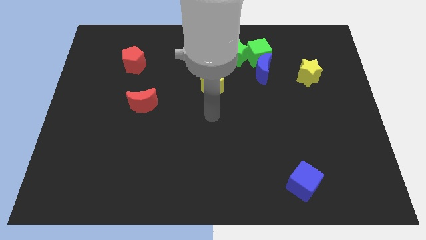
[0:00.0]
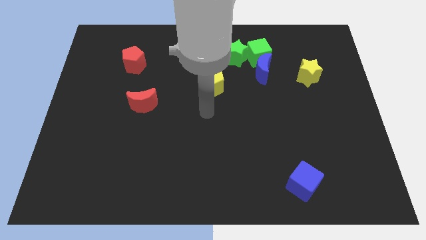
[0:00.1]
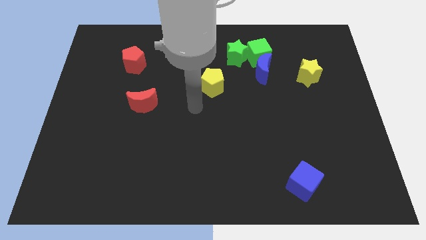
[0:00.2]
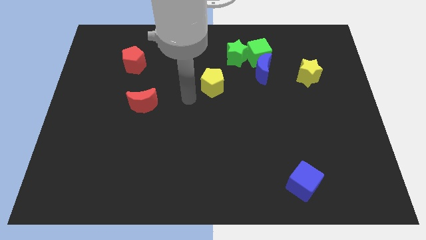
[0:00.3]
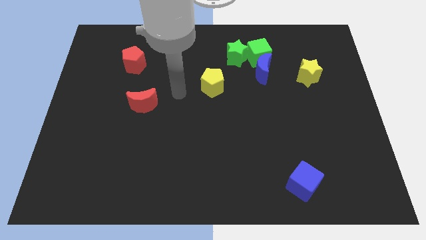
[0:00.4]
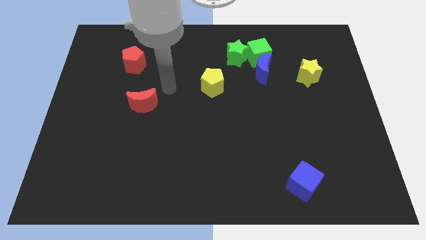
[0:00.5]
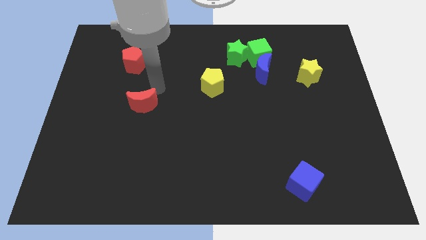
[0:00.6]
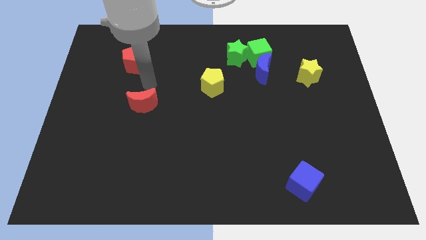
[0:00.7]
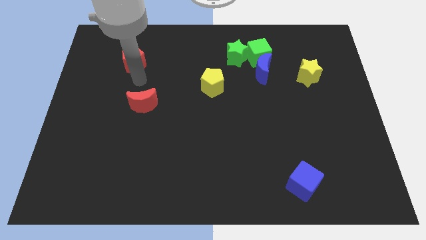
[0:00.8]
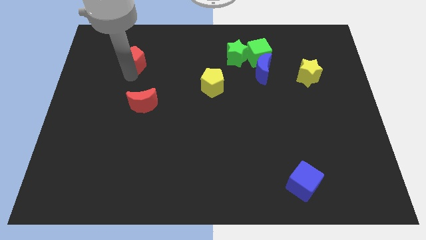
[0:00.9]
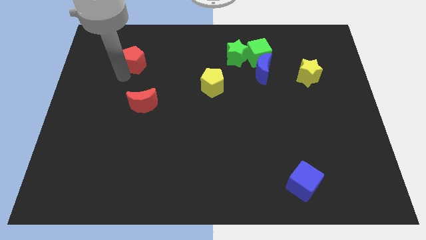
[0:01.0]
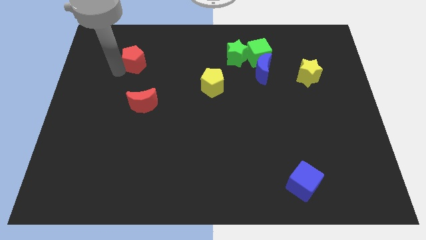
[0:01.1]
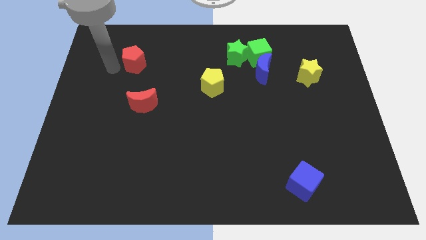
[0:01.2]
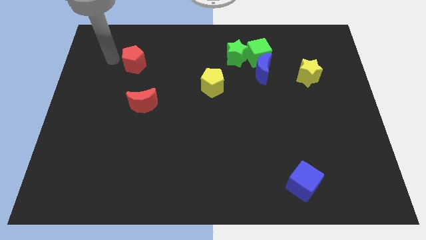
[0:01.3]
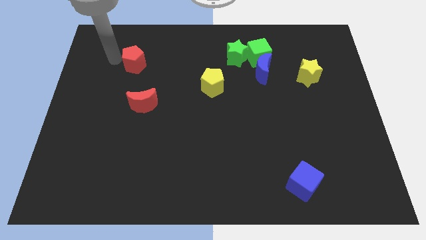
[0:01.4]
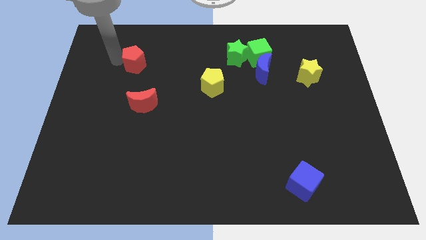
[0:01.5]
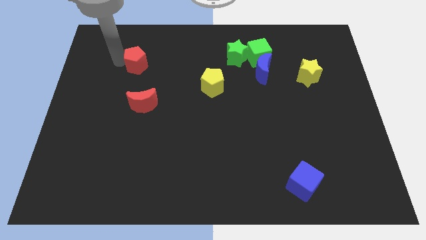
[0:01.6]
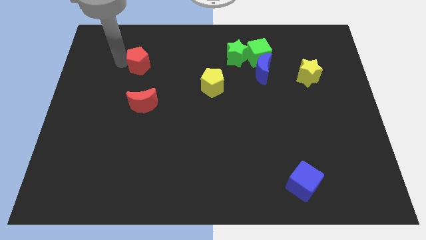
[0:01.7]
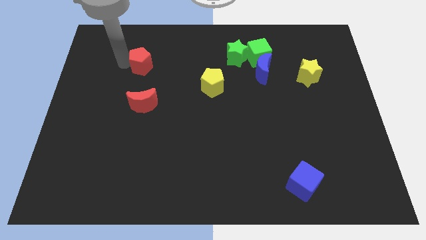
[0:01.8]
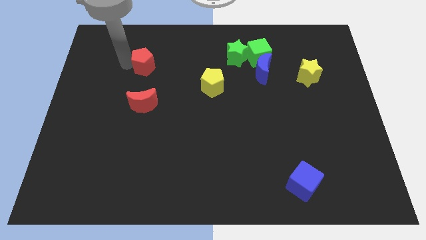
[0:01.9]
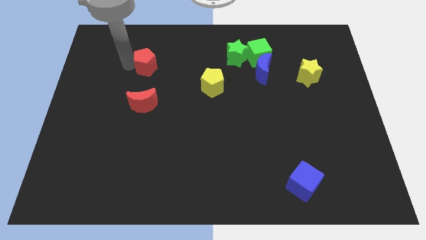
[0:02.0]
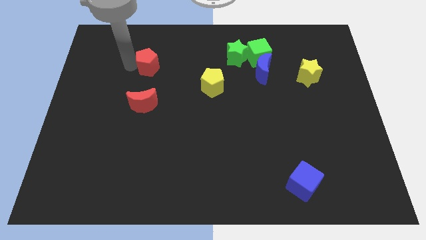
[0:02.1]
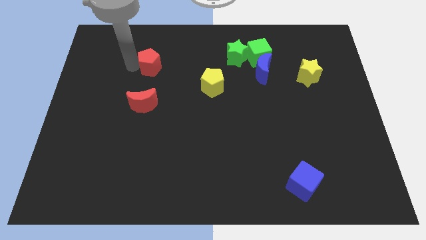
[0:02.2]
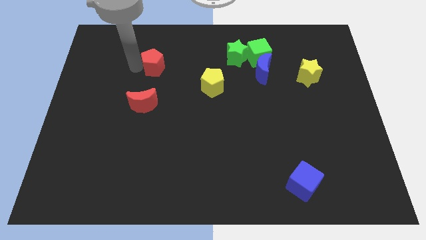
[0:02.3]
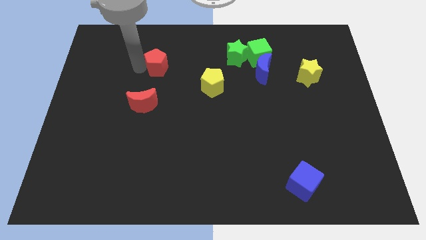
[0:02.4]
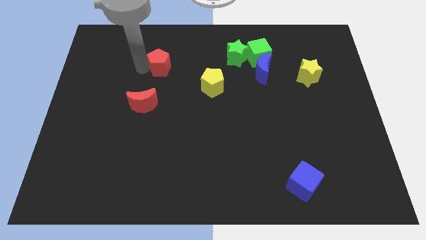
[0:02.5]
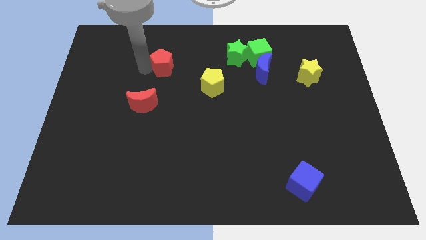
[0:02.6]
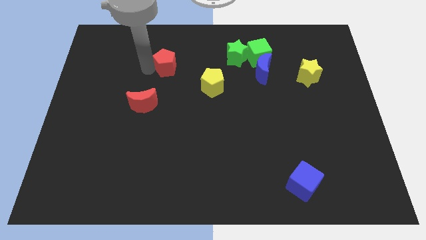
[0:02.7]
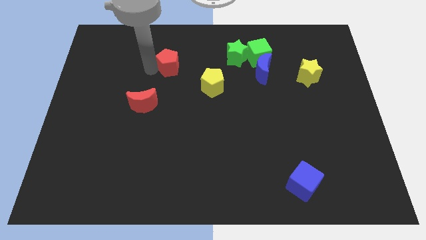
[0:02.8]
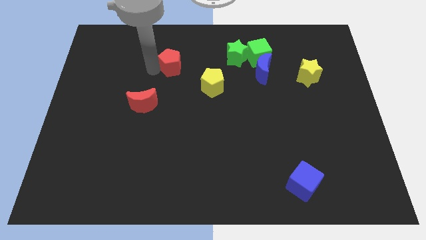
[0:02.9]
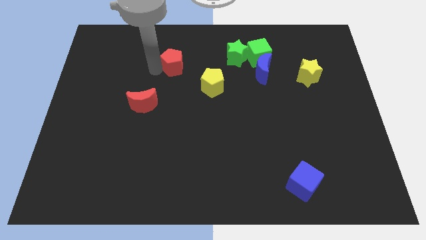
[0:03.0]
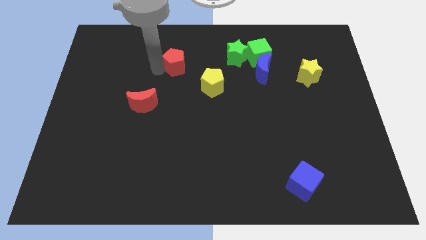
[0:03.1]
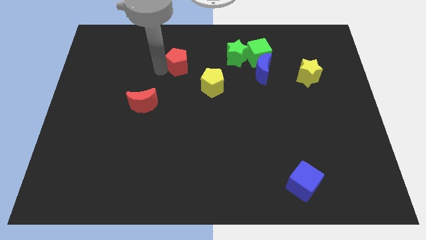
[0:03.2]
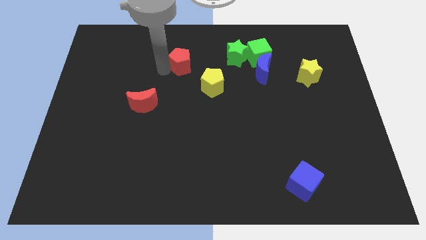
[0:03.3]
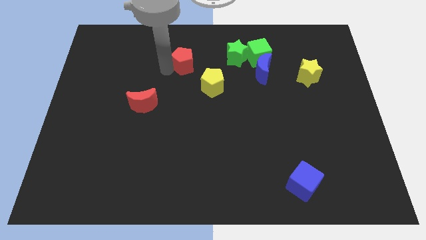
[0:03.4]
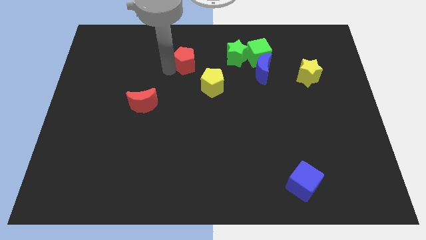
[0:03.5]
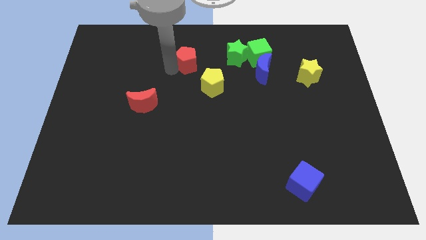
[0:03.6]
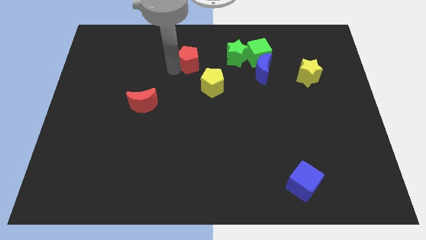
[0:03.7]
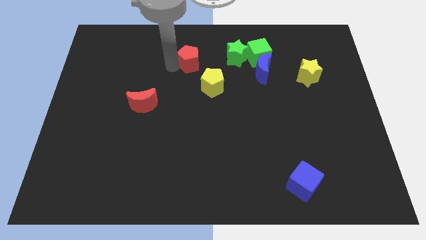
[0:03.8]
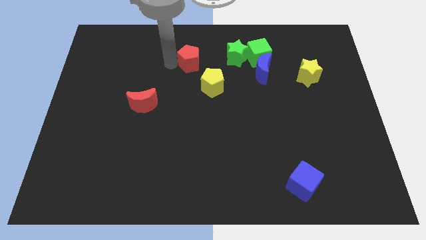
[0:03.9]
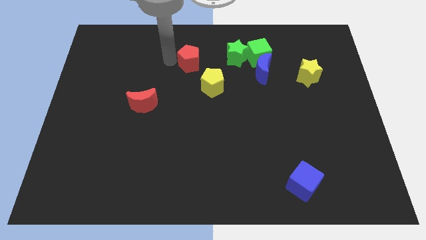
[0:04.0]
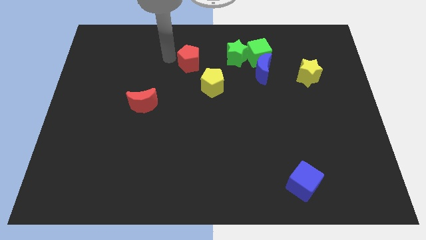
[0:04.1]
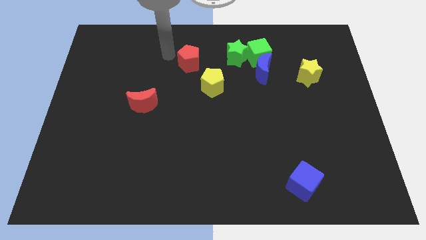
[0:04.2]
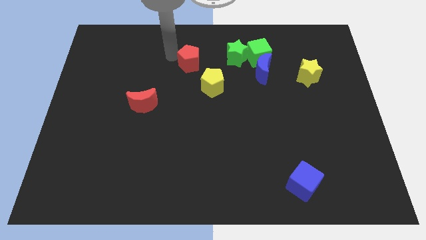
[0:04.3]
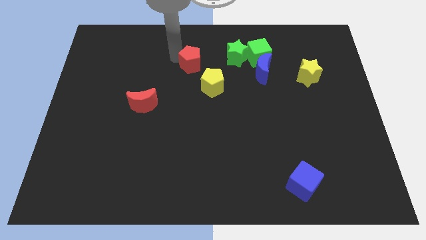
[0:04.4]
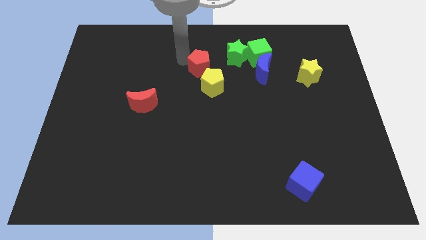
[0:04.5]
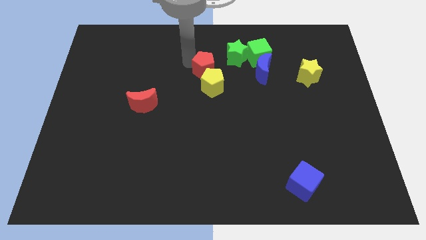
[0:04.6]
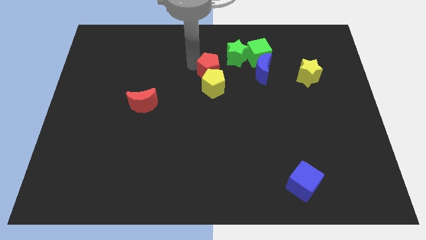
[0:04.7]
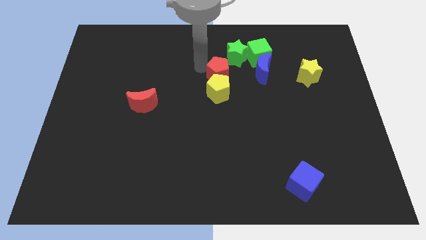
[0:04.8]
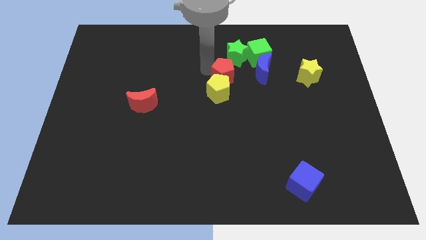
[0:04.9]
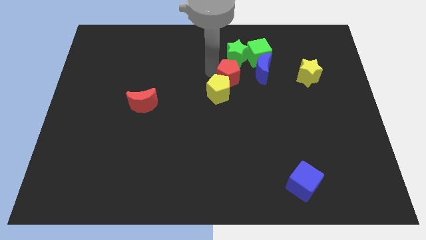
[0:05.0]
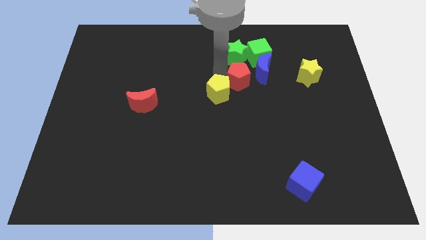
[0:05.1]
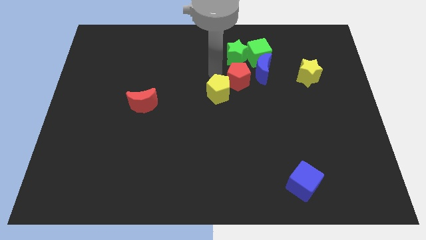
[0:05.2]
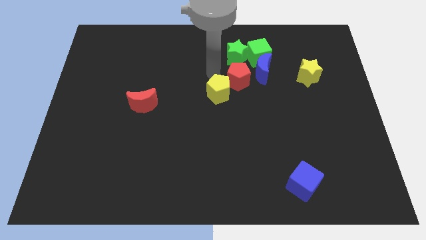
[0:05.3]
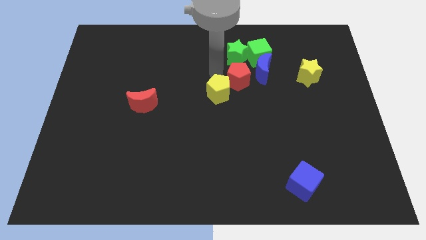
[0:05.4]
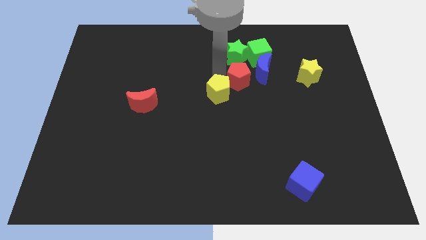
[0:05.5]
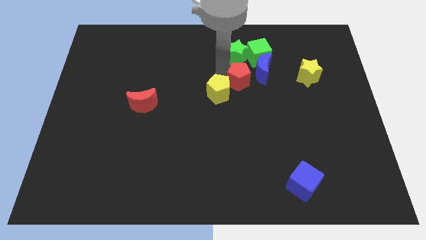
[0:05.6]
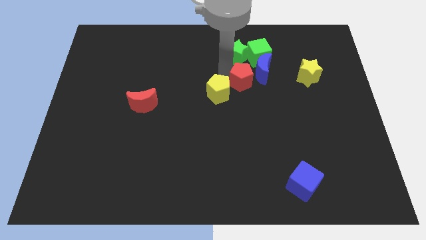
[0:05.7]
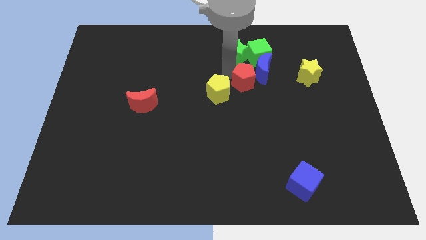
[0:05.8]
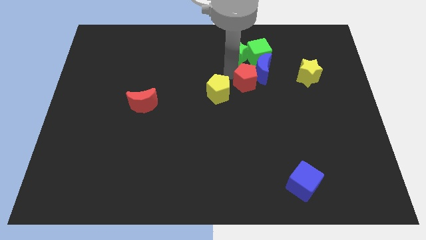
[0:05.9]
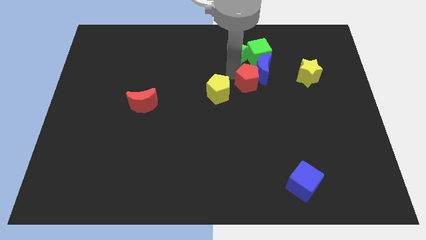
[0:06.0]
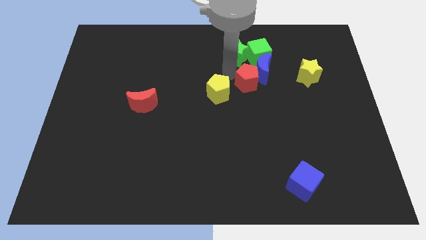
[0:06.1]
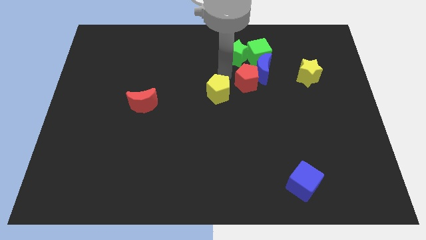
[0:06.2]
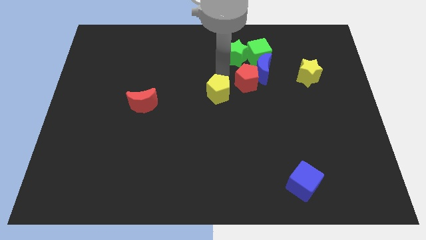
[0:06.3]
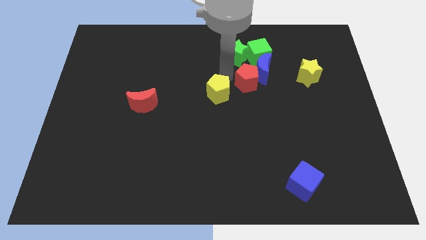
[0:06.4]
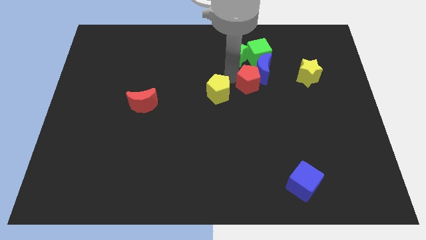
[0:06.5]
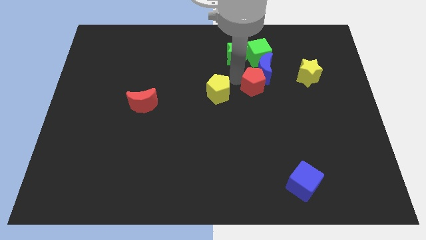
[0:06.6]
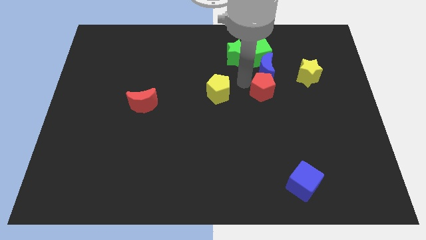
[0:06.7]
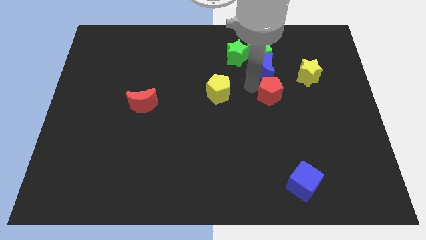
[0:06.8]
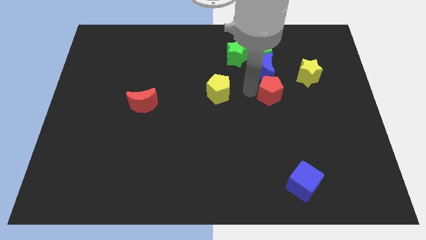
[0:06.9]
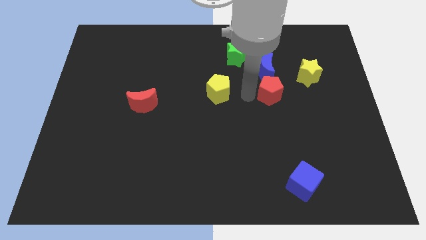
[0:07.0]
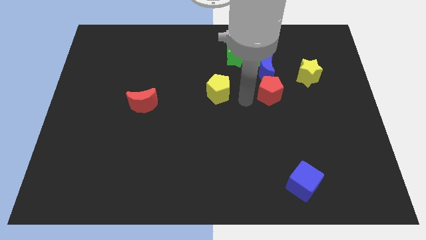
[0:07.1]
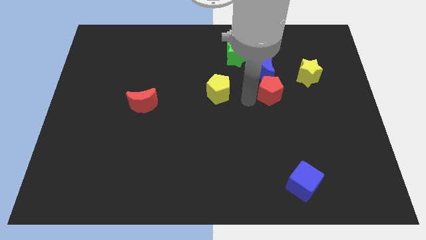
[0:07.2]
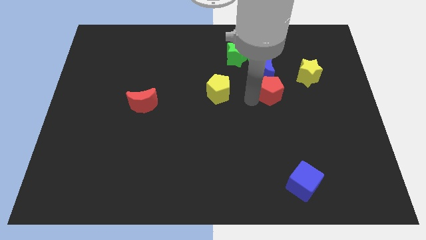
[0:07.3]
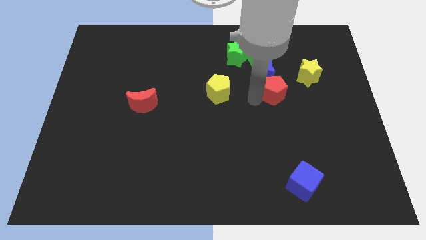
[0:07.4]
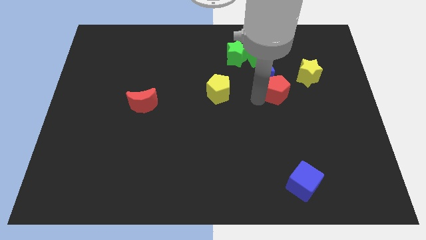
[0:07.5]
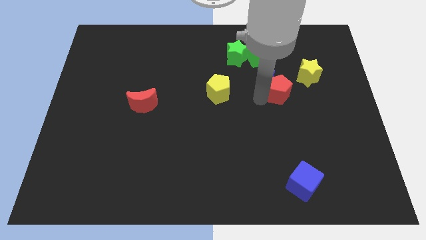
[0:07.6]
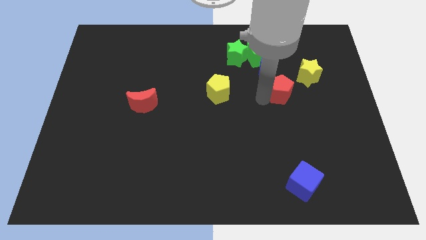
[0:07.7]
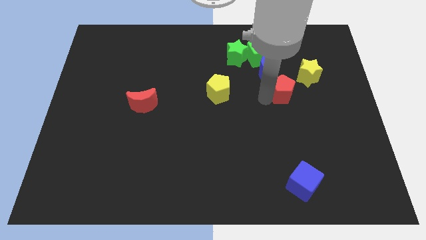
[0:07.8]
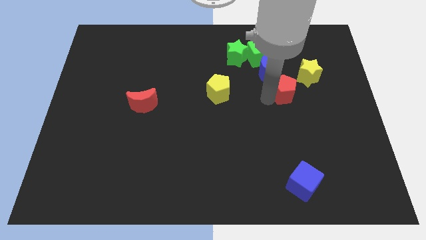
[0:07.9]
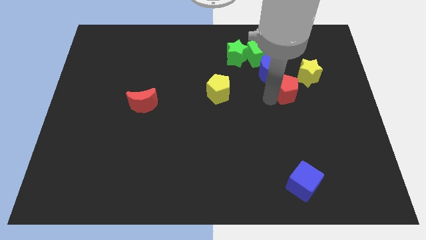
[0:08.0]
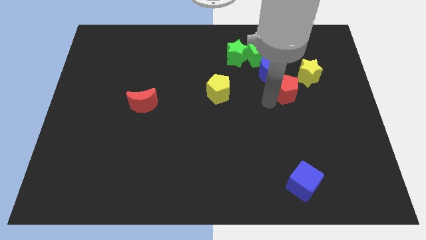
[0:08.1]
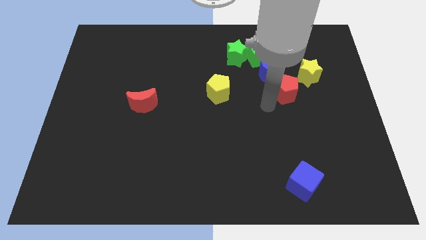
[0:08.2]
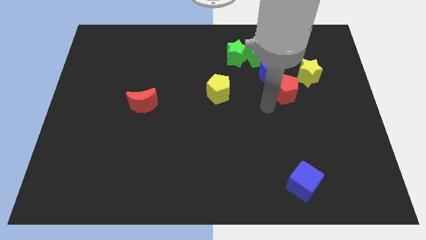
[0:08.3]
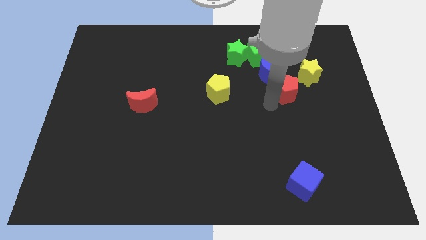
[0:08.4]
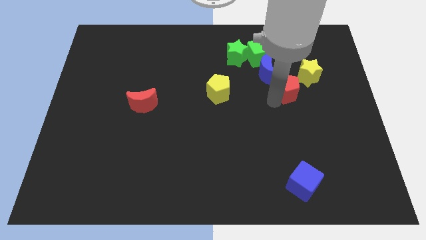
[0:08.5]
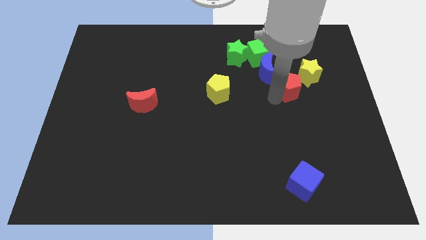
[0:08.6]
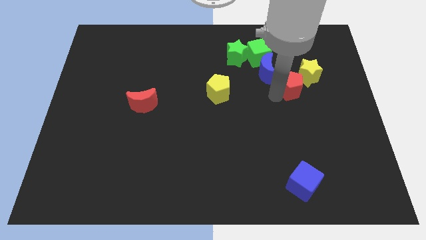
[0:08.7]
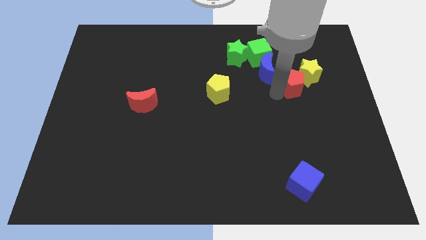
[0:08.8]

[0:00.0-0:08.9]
push the red pentagon towards the yellow star
